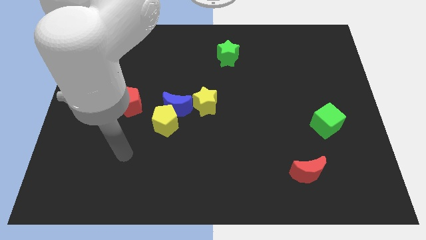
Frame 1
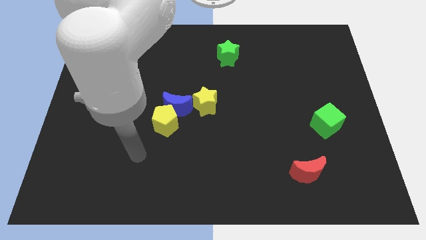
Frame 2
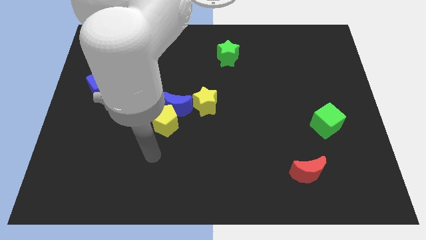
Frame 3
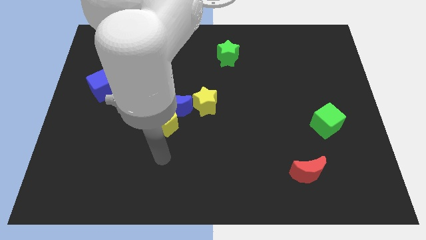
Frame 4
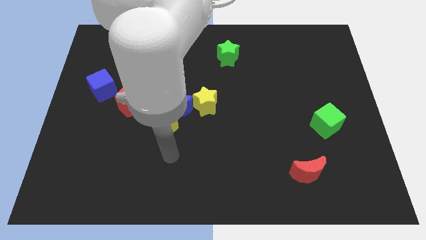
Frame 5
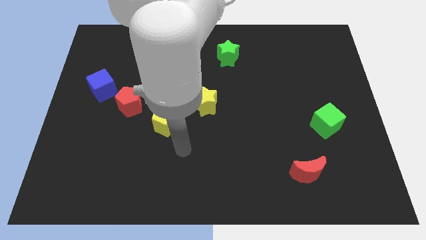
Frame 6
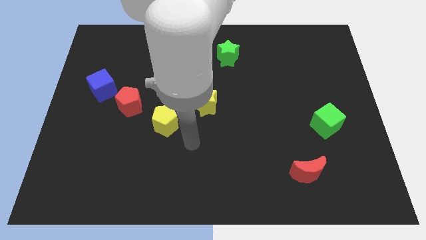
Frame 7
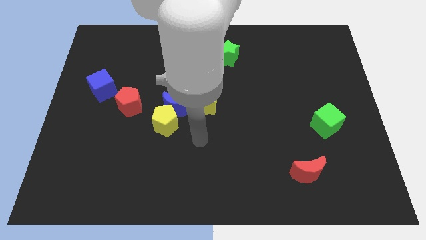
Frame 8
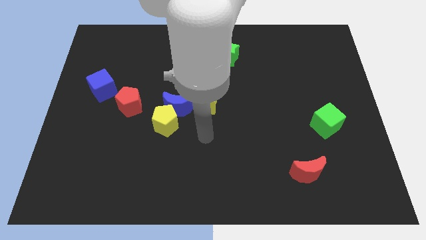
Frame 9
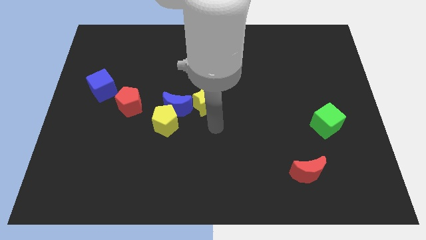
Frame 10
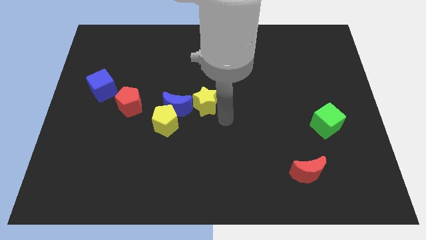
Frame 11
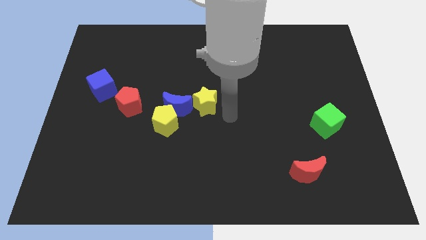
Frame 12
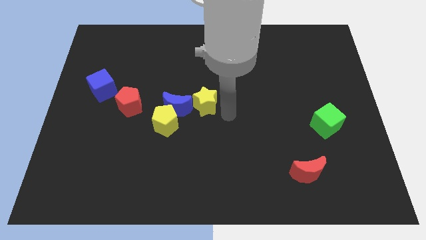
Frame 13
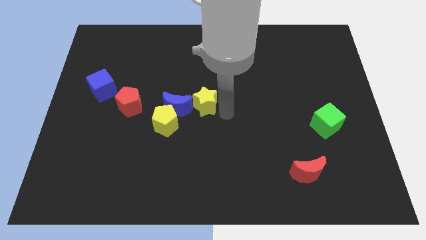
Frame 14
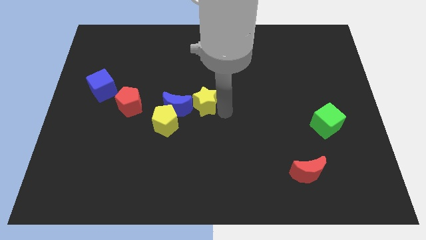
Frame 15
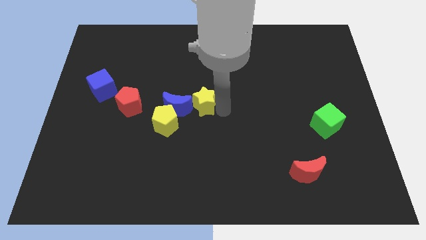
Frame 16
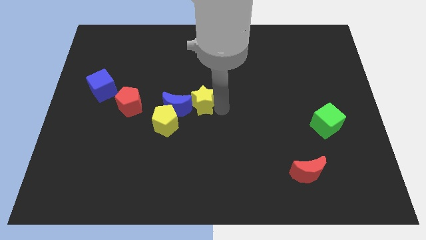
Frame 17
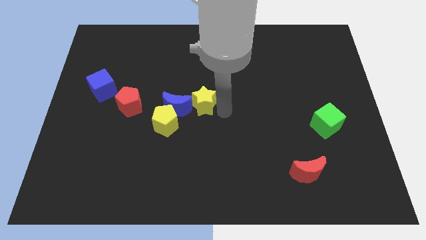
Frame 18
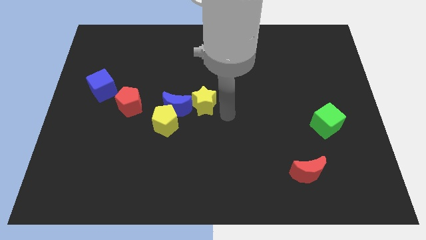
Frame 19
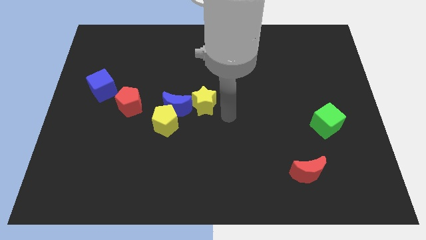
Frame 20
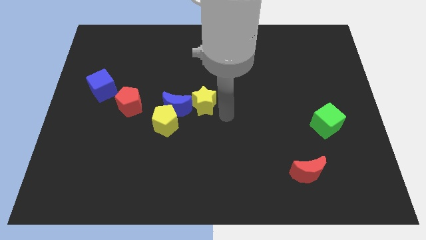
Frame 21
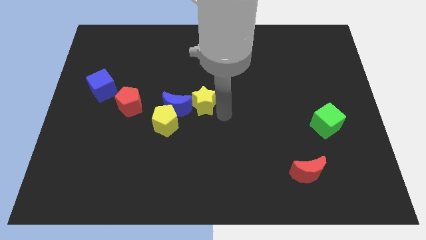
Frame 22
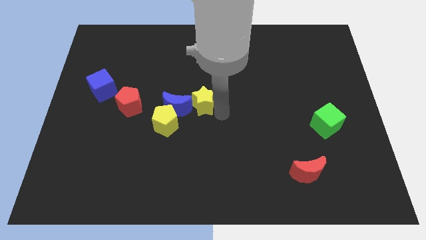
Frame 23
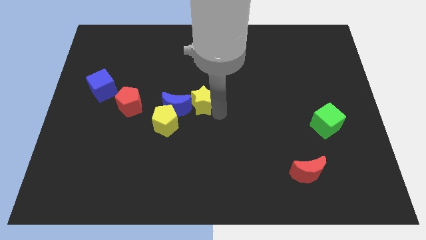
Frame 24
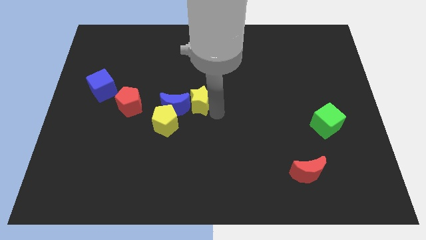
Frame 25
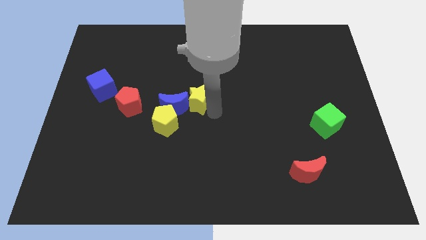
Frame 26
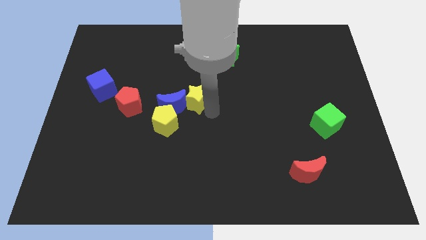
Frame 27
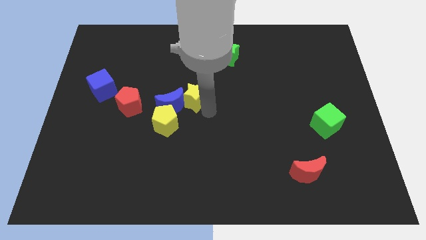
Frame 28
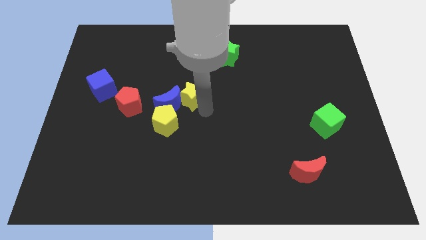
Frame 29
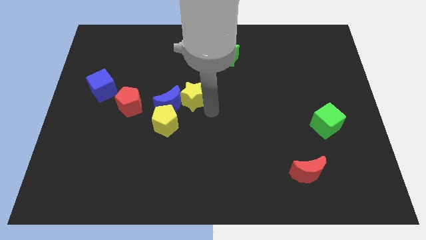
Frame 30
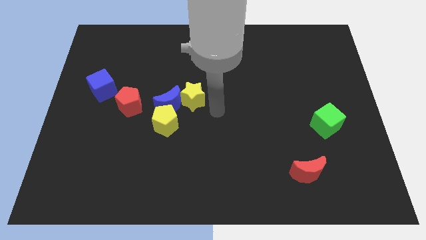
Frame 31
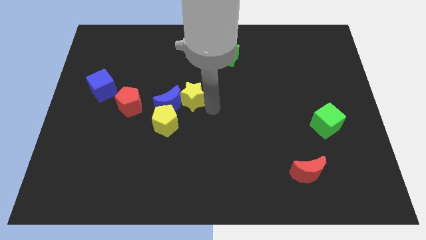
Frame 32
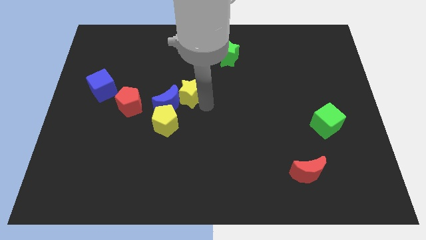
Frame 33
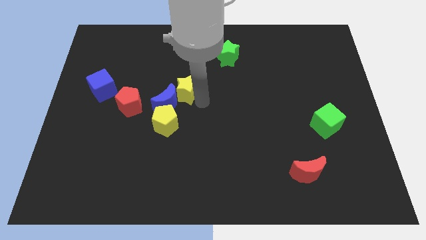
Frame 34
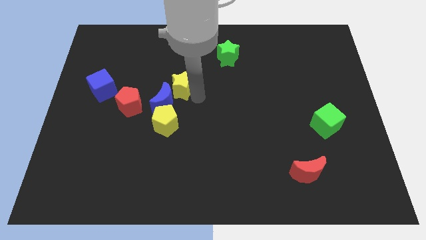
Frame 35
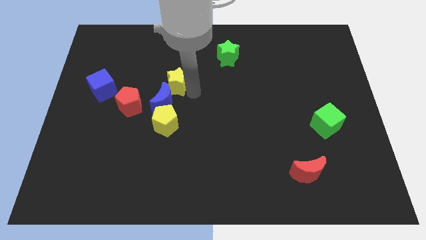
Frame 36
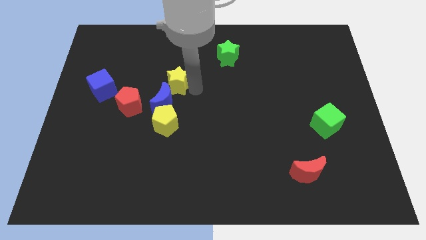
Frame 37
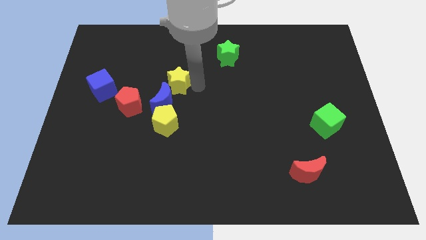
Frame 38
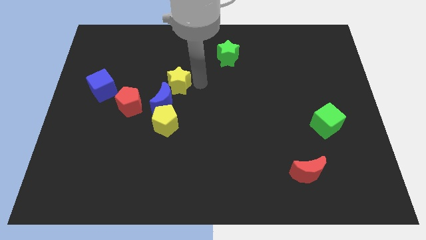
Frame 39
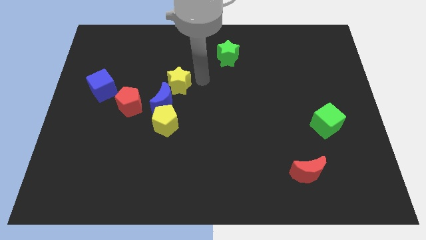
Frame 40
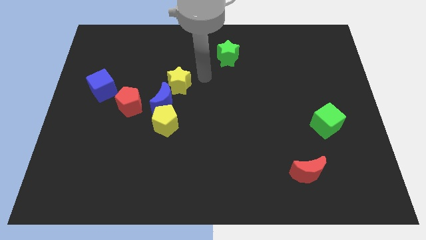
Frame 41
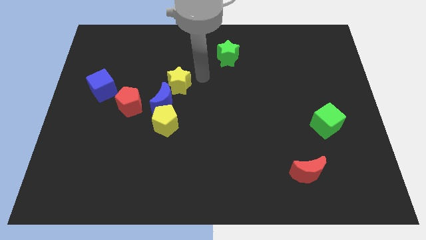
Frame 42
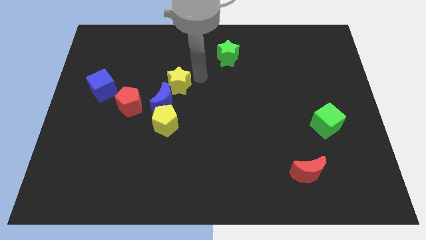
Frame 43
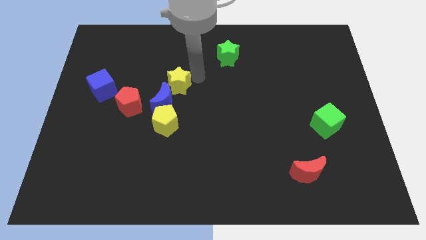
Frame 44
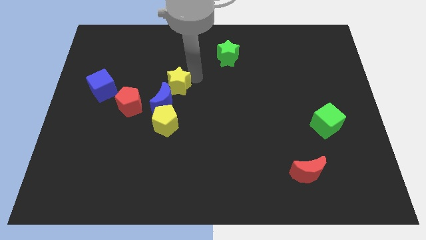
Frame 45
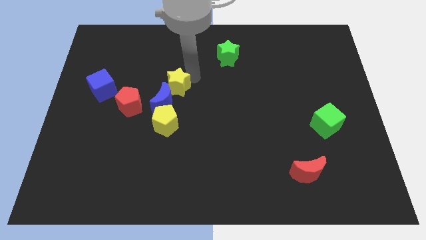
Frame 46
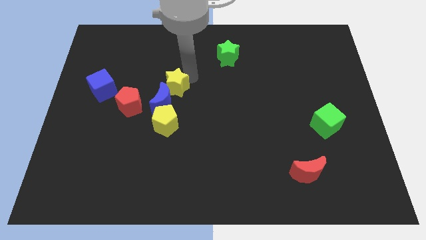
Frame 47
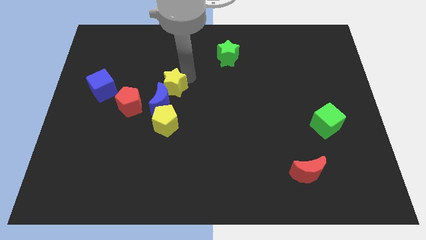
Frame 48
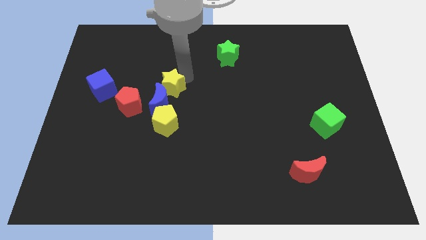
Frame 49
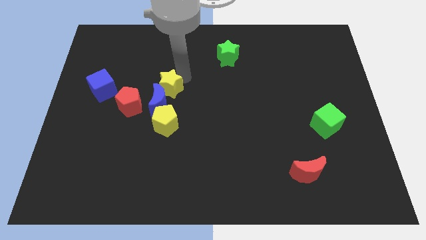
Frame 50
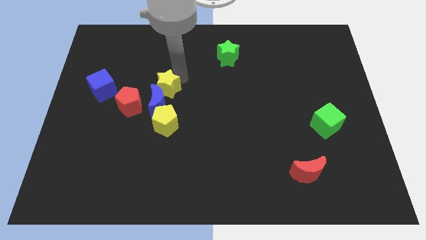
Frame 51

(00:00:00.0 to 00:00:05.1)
slide the yellow star just right of the blue cube

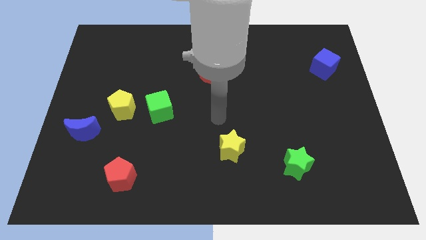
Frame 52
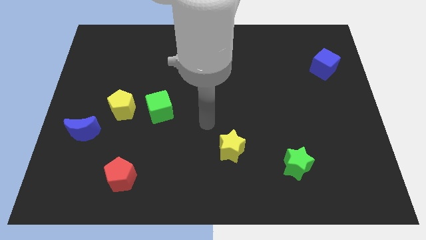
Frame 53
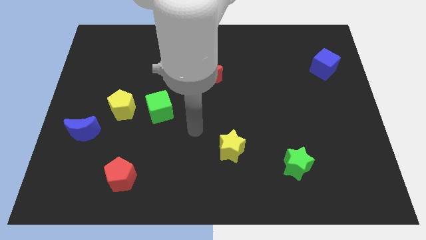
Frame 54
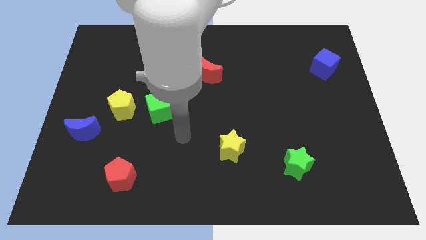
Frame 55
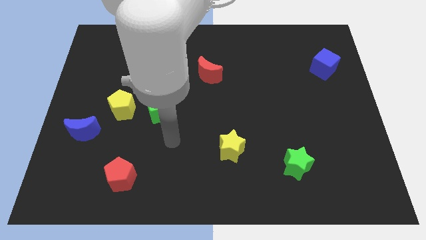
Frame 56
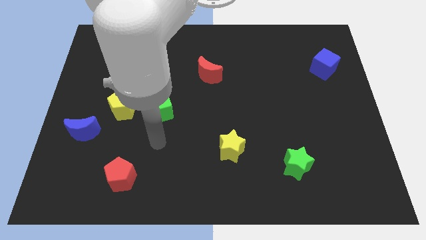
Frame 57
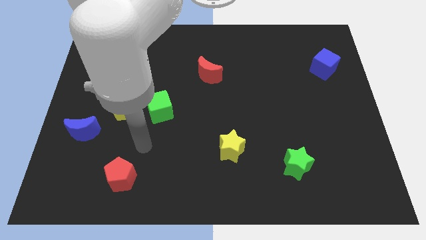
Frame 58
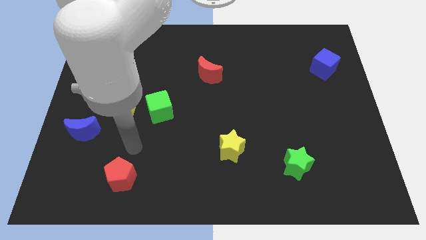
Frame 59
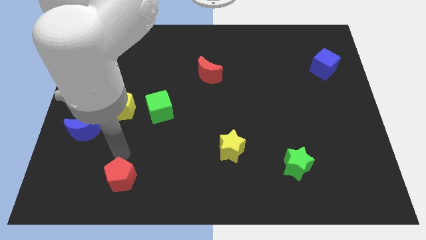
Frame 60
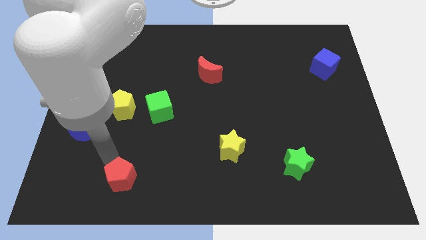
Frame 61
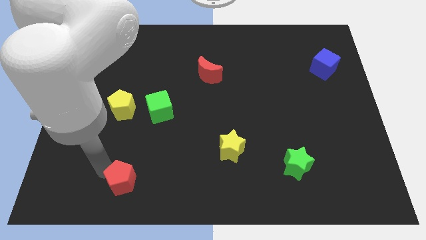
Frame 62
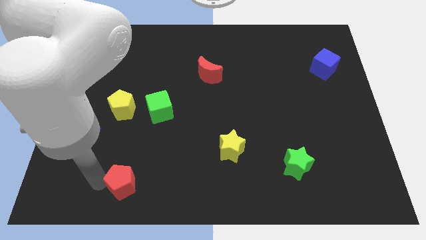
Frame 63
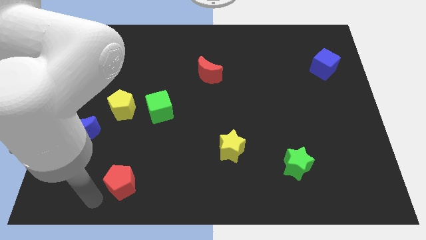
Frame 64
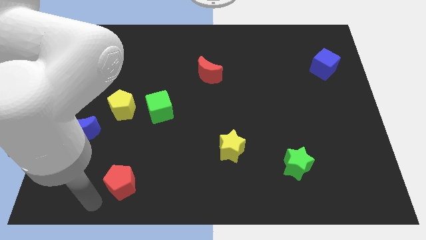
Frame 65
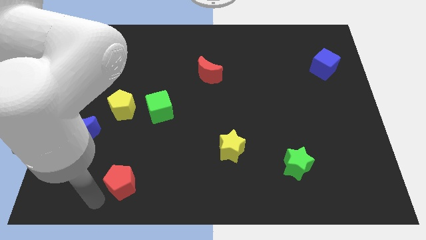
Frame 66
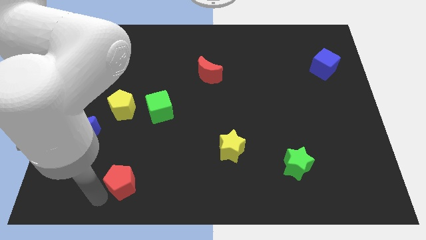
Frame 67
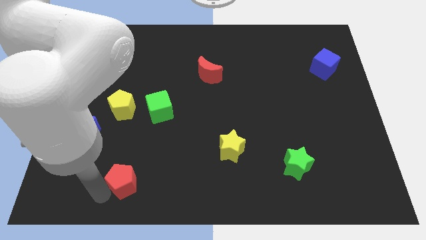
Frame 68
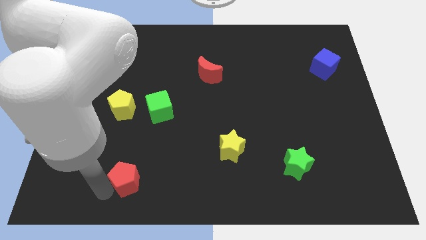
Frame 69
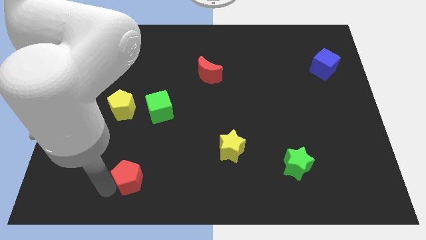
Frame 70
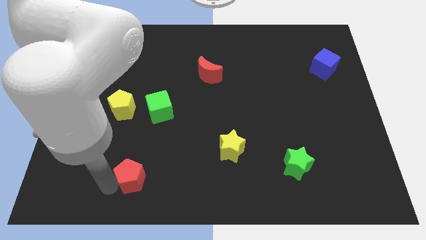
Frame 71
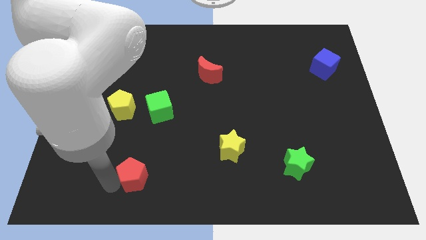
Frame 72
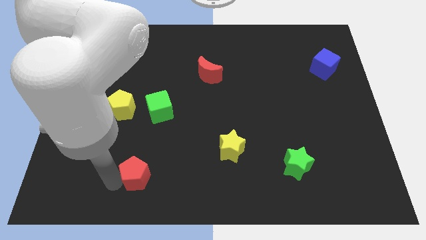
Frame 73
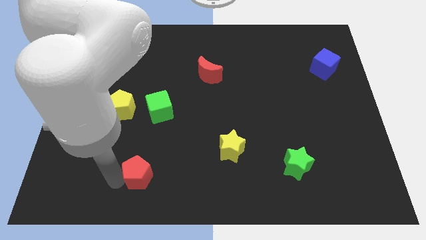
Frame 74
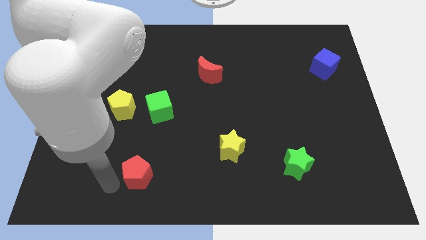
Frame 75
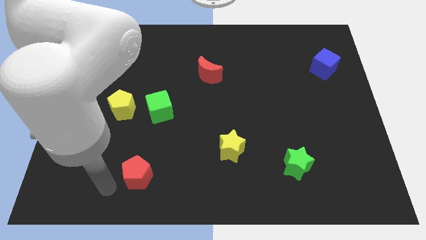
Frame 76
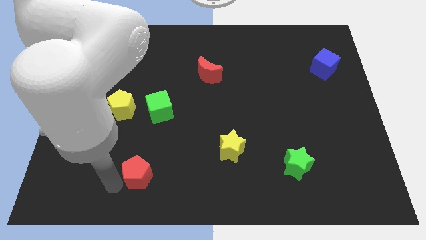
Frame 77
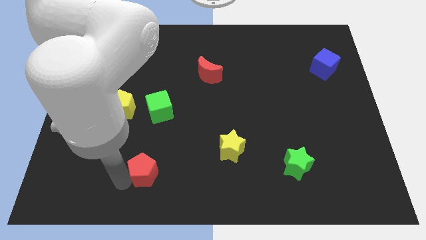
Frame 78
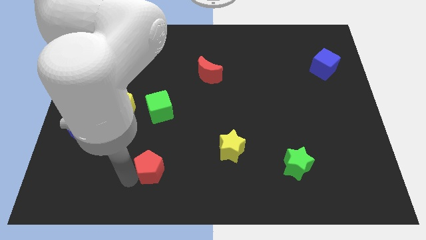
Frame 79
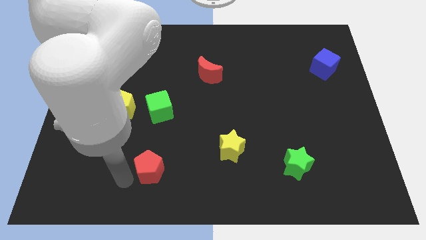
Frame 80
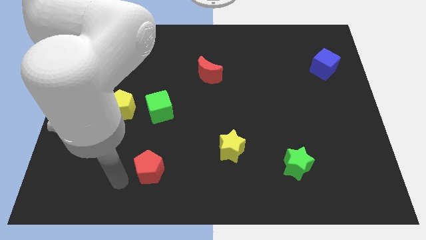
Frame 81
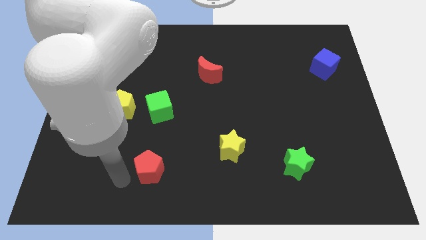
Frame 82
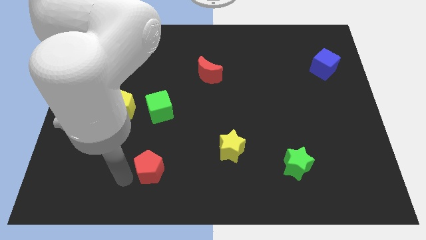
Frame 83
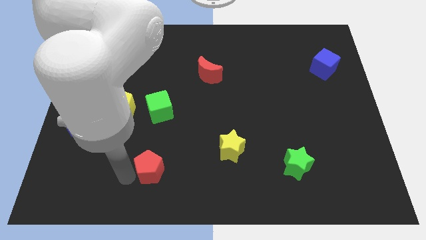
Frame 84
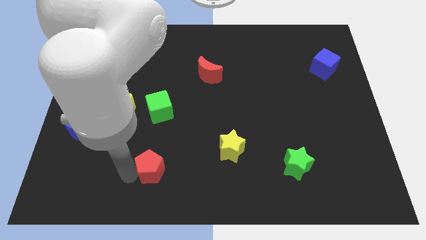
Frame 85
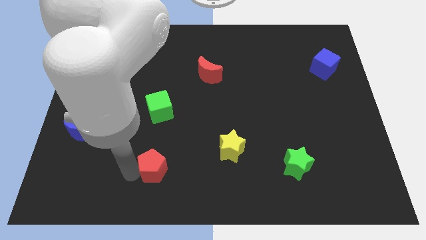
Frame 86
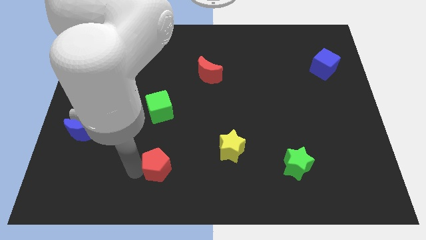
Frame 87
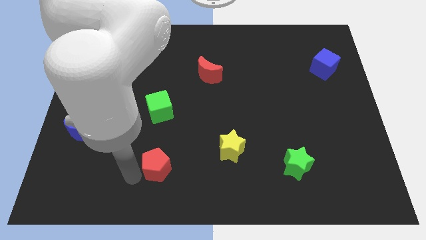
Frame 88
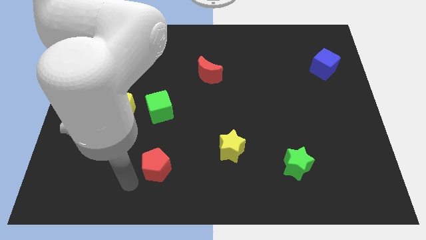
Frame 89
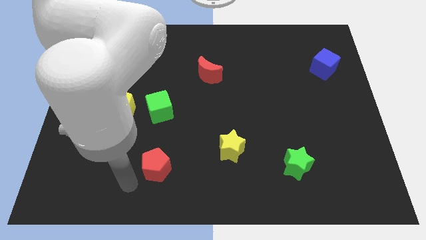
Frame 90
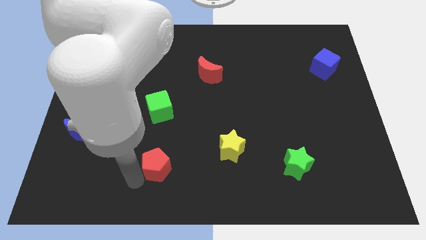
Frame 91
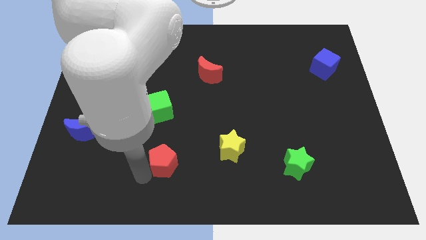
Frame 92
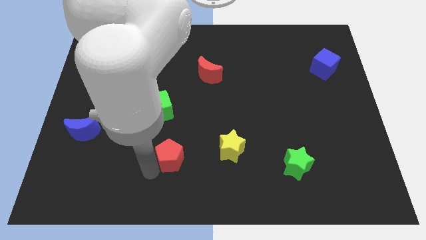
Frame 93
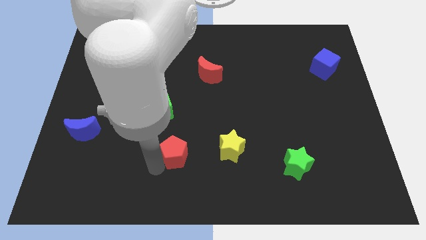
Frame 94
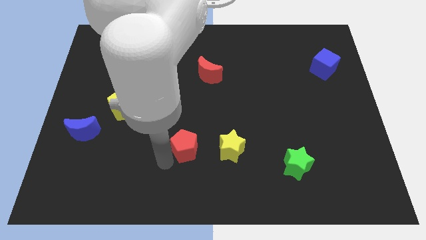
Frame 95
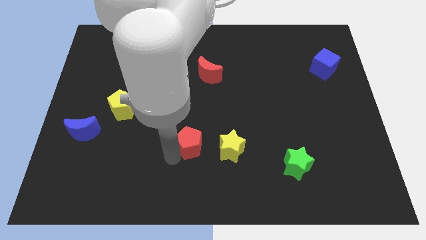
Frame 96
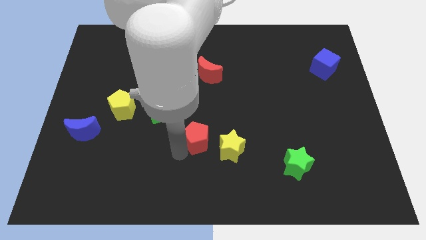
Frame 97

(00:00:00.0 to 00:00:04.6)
move the red pentagon to the top left side of the yellow star
